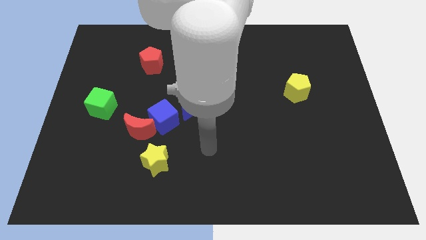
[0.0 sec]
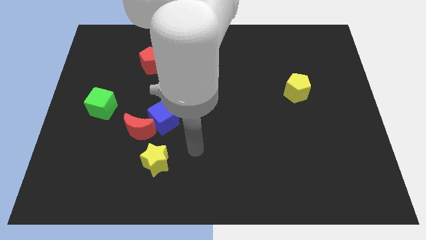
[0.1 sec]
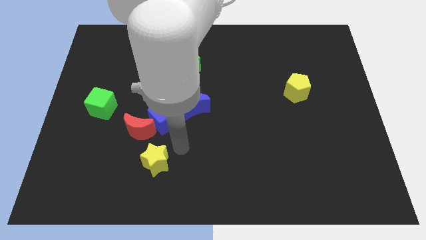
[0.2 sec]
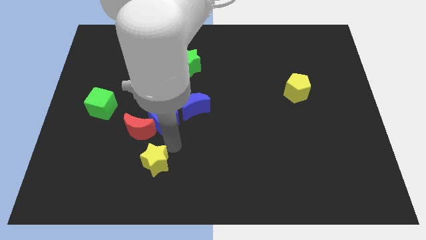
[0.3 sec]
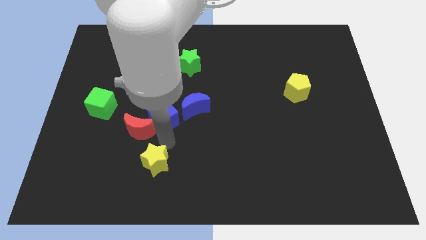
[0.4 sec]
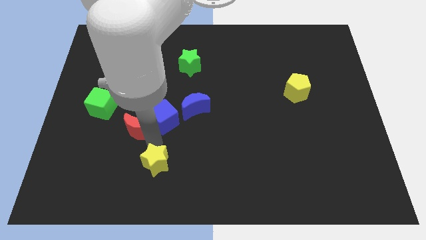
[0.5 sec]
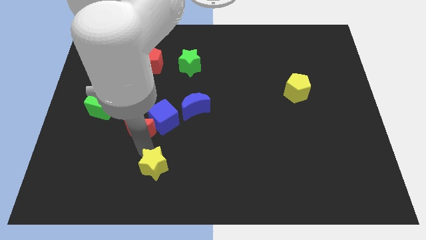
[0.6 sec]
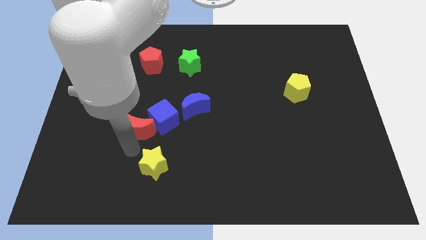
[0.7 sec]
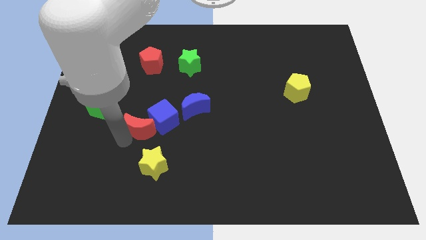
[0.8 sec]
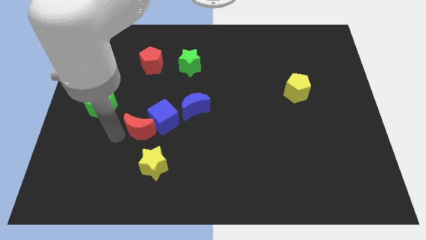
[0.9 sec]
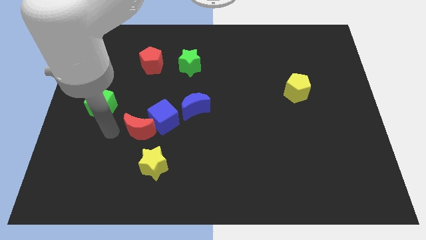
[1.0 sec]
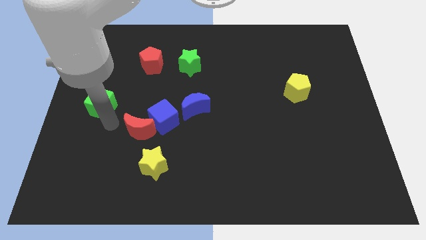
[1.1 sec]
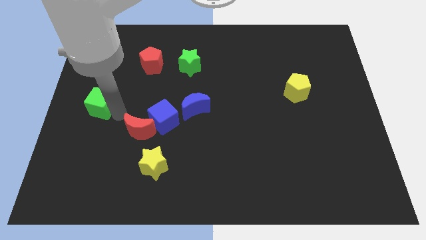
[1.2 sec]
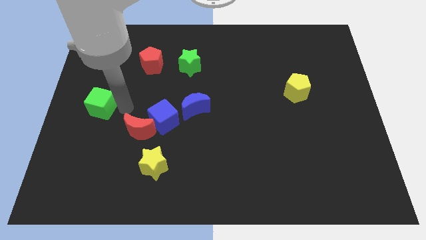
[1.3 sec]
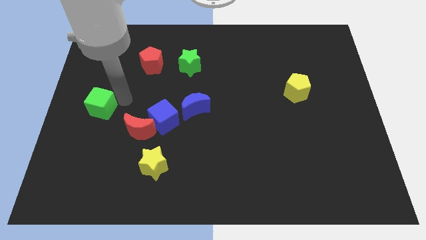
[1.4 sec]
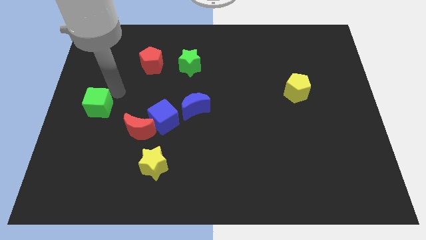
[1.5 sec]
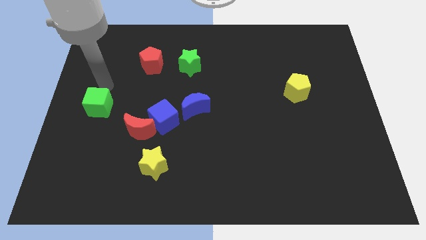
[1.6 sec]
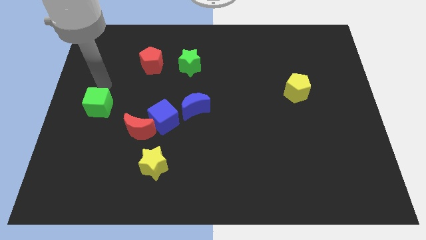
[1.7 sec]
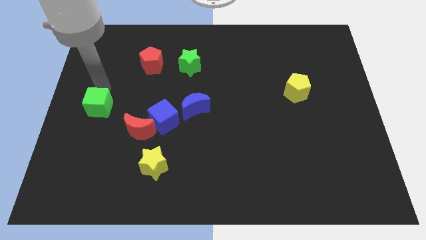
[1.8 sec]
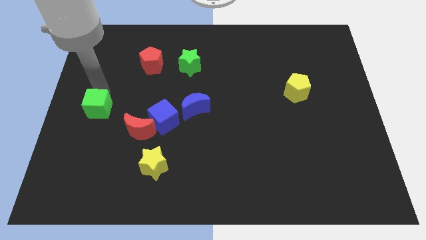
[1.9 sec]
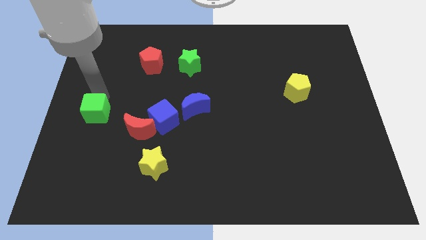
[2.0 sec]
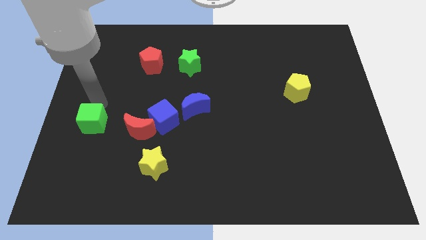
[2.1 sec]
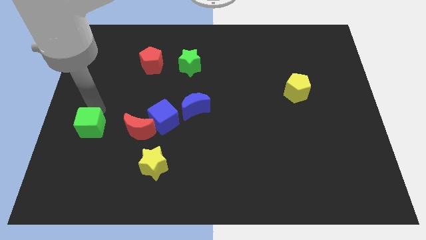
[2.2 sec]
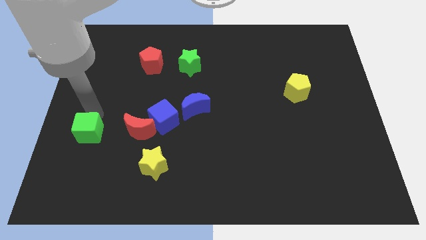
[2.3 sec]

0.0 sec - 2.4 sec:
slightly move the green cube downwards

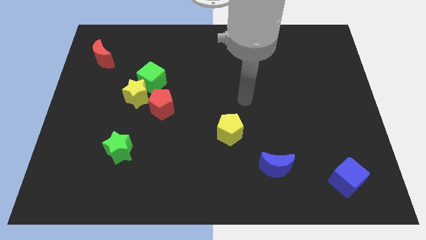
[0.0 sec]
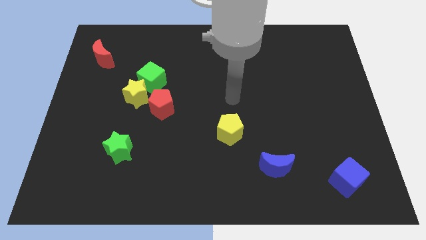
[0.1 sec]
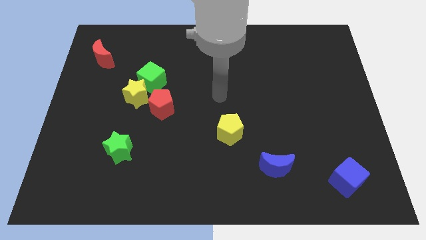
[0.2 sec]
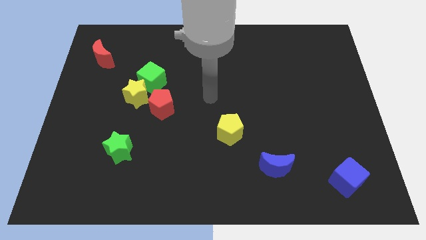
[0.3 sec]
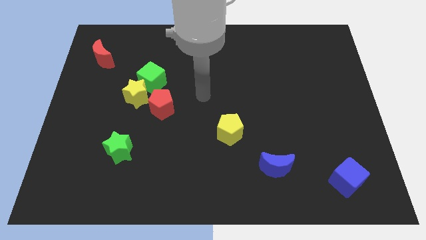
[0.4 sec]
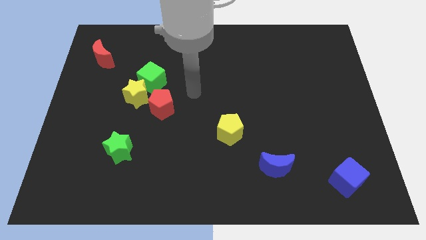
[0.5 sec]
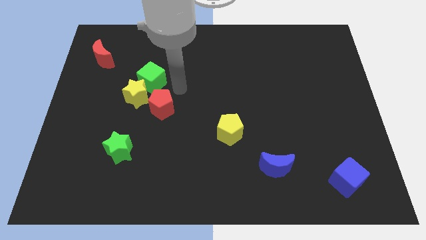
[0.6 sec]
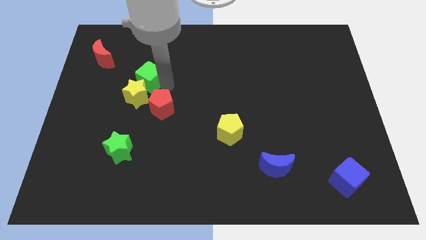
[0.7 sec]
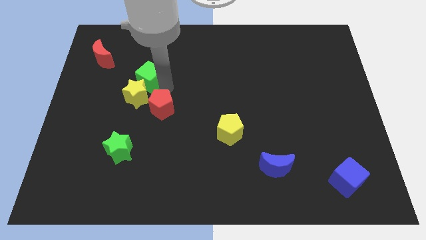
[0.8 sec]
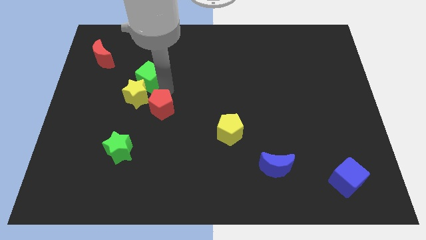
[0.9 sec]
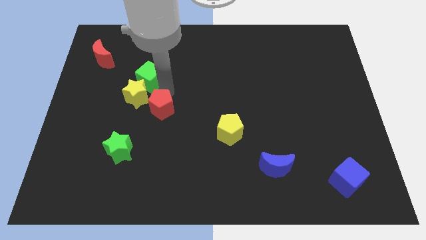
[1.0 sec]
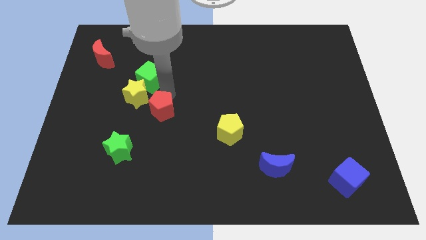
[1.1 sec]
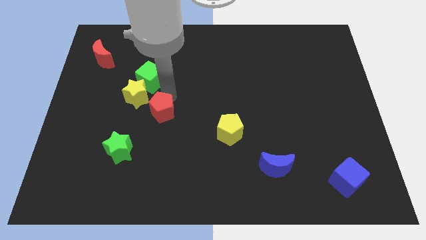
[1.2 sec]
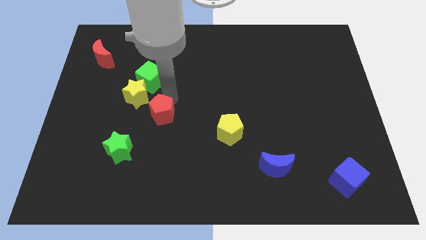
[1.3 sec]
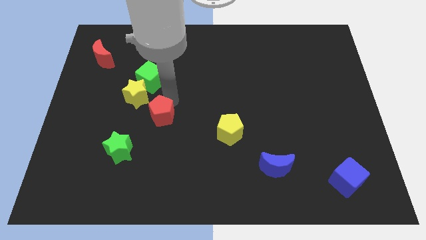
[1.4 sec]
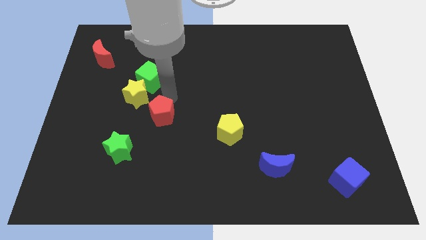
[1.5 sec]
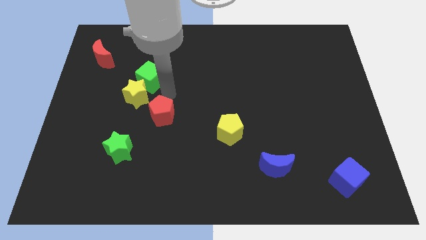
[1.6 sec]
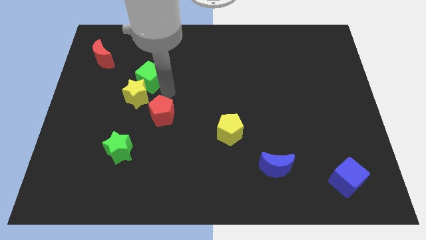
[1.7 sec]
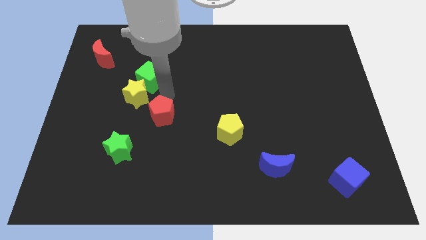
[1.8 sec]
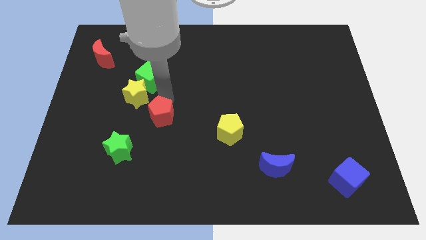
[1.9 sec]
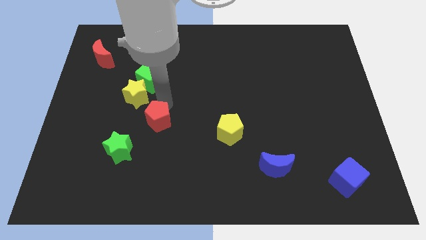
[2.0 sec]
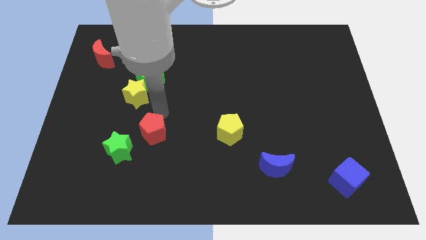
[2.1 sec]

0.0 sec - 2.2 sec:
slightly move the red pentagon down

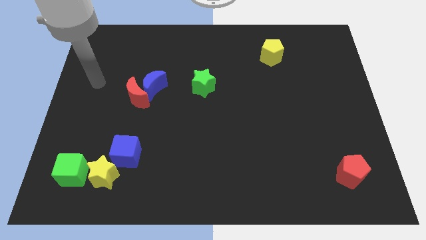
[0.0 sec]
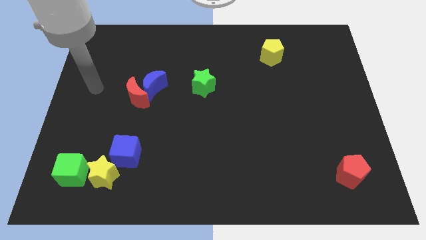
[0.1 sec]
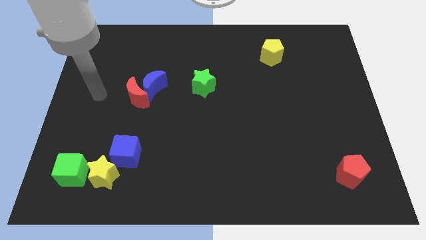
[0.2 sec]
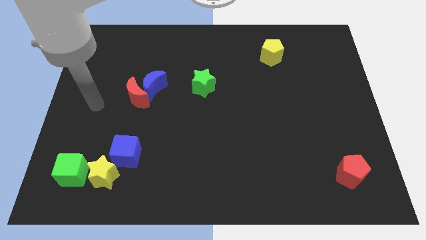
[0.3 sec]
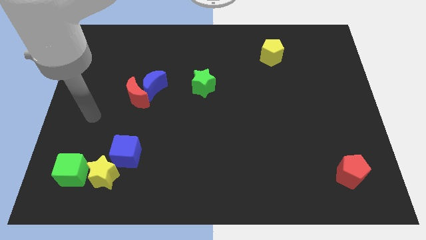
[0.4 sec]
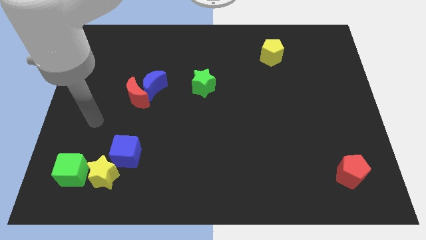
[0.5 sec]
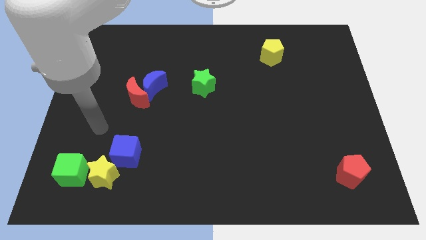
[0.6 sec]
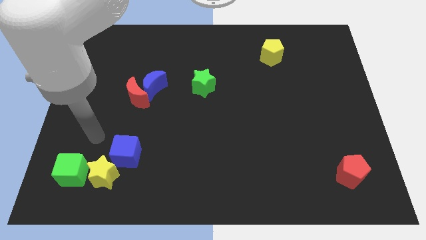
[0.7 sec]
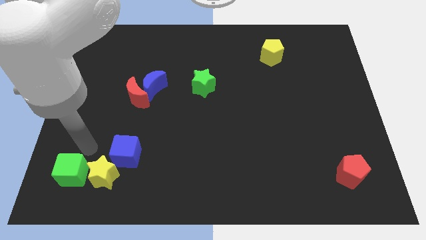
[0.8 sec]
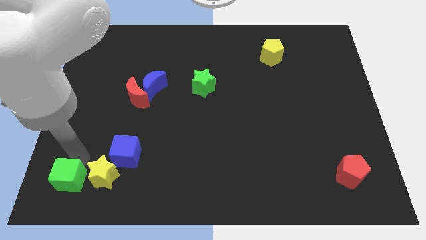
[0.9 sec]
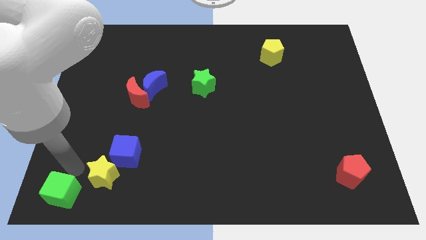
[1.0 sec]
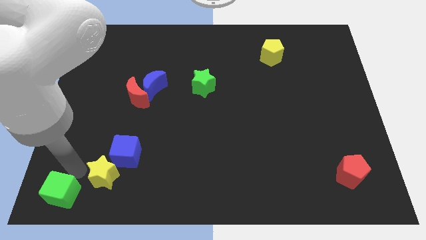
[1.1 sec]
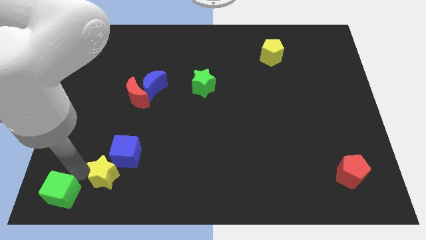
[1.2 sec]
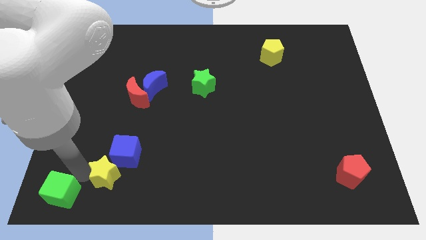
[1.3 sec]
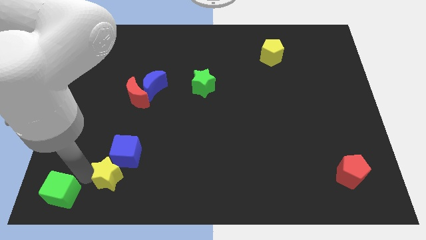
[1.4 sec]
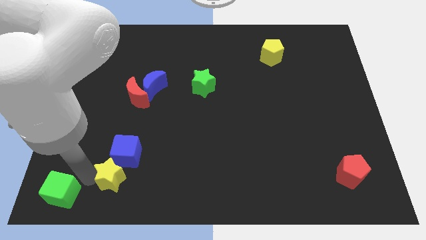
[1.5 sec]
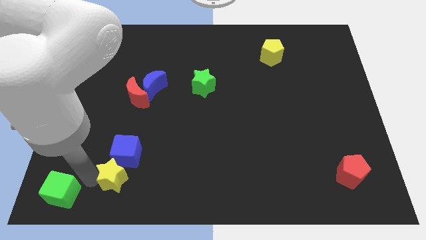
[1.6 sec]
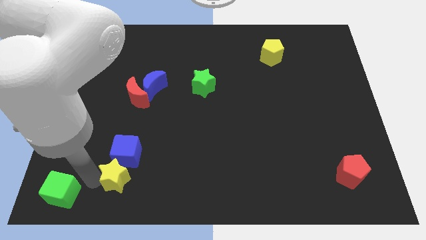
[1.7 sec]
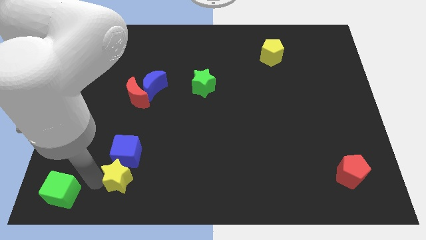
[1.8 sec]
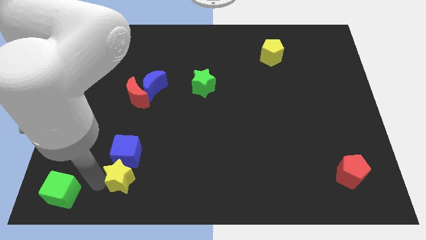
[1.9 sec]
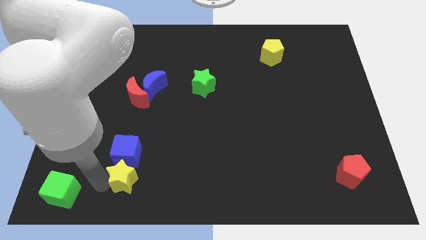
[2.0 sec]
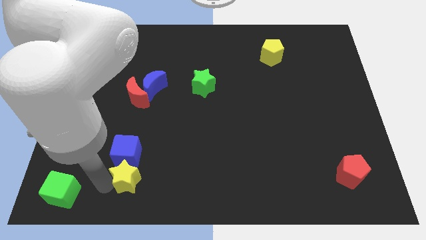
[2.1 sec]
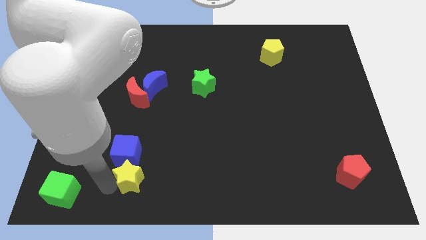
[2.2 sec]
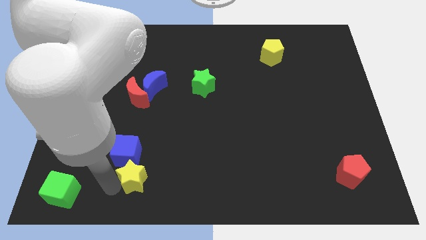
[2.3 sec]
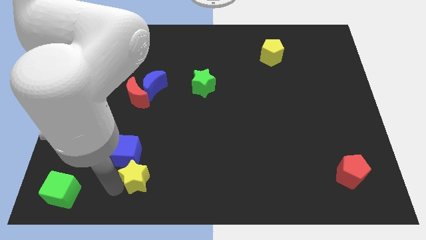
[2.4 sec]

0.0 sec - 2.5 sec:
slightly move the yellow star right

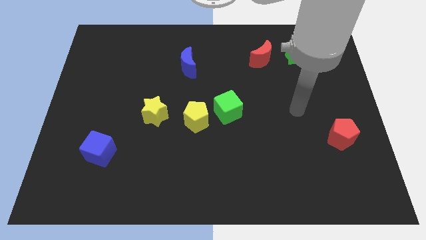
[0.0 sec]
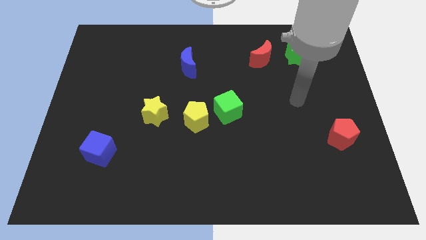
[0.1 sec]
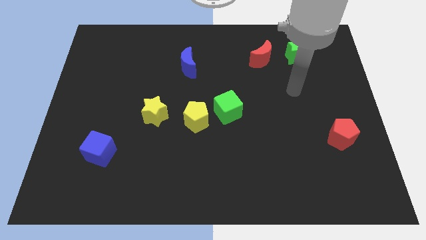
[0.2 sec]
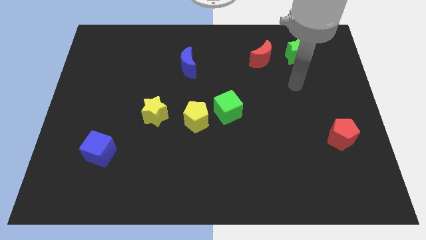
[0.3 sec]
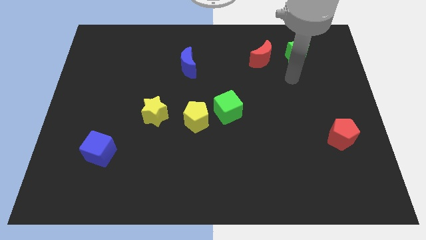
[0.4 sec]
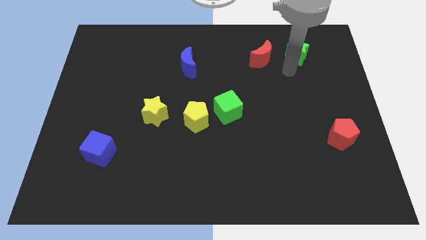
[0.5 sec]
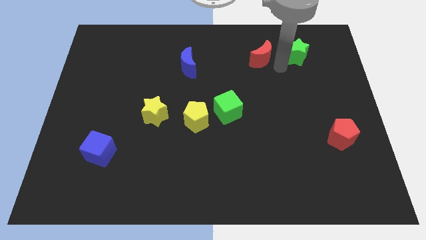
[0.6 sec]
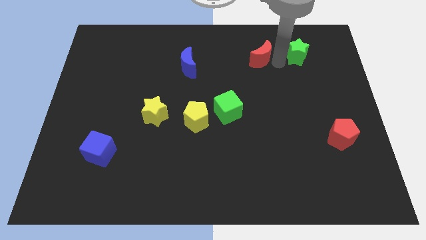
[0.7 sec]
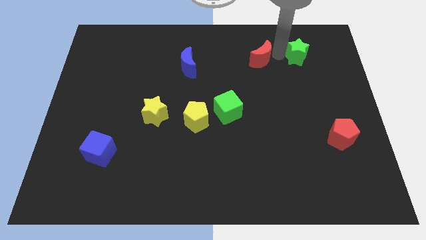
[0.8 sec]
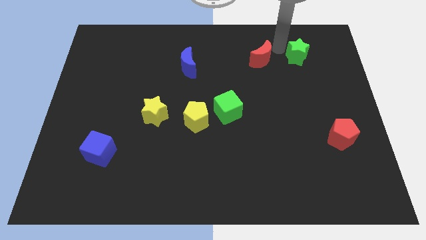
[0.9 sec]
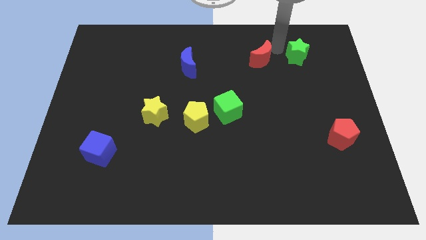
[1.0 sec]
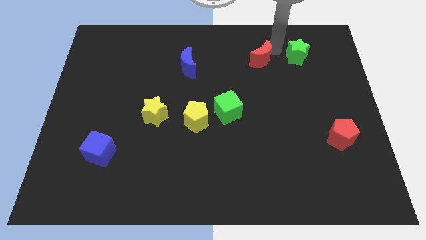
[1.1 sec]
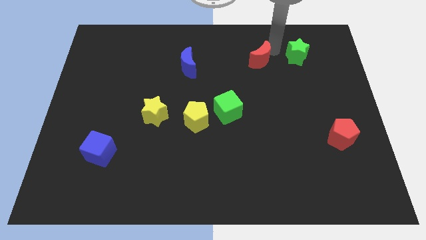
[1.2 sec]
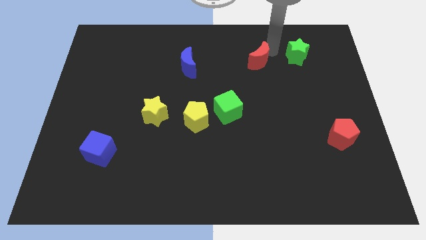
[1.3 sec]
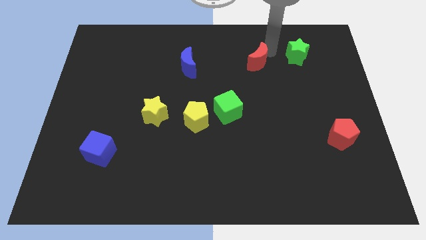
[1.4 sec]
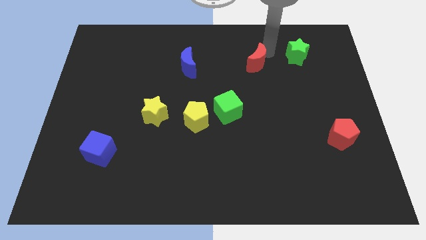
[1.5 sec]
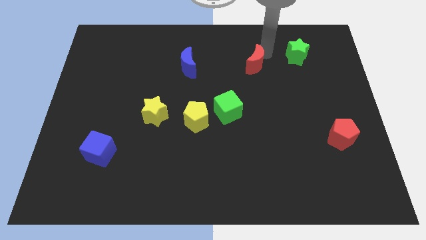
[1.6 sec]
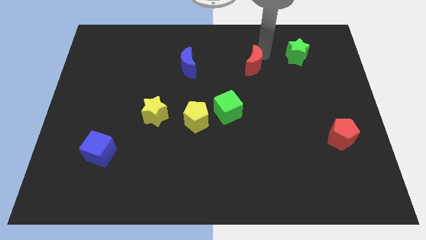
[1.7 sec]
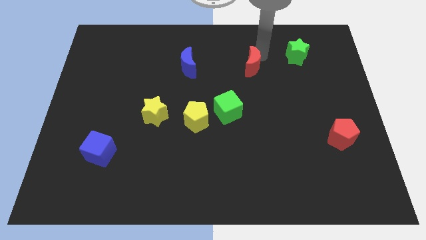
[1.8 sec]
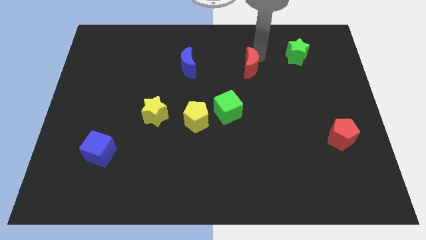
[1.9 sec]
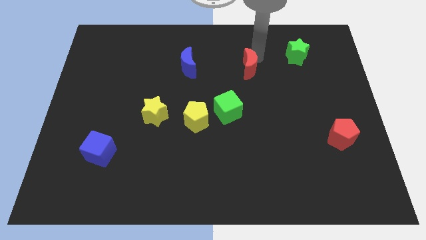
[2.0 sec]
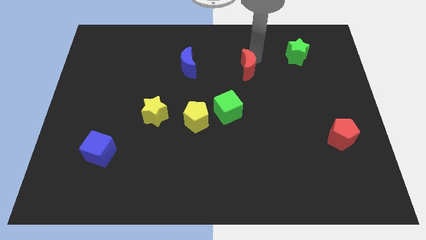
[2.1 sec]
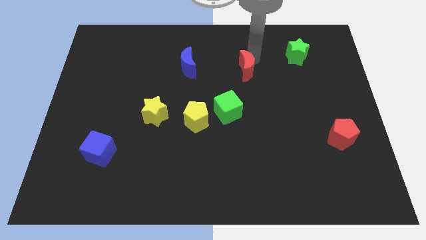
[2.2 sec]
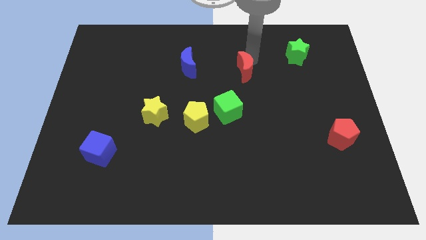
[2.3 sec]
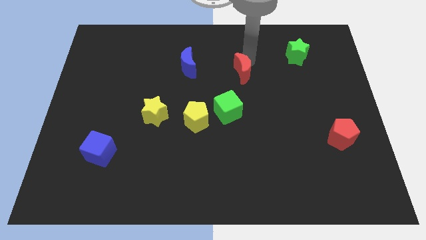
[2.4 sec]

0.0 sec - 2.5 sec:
slide the red moon downwards and left a little bit
